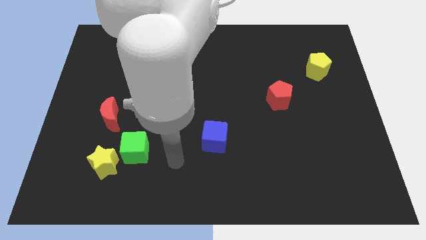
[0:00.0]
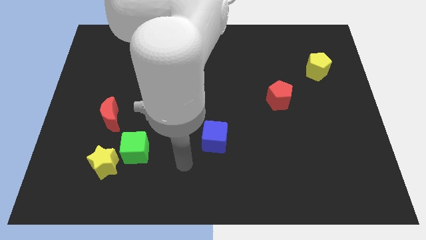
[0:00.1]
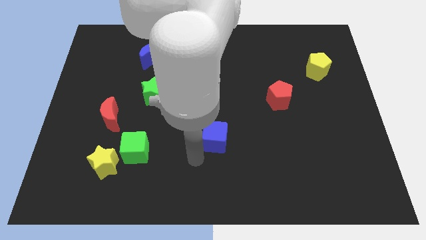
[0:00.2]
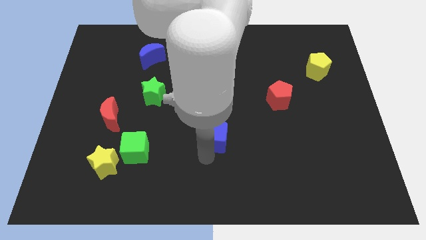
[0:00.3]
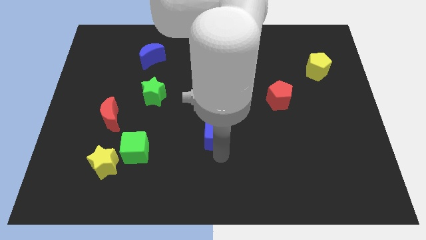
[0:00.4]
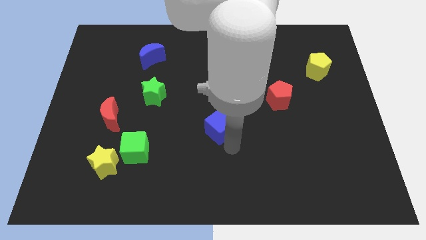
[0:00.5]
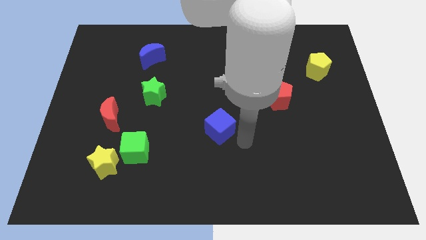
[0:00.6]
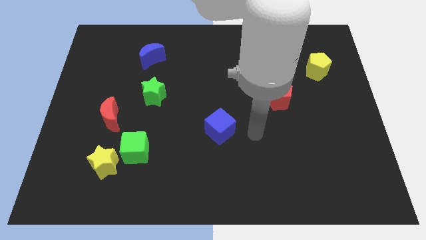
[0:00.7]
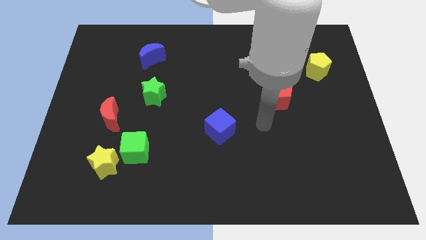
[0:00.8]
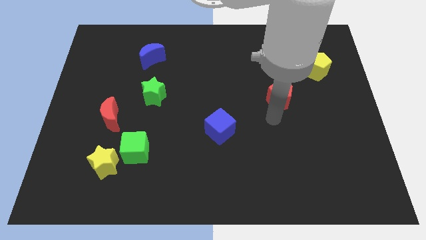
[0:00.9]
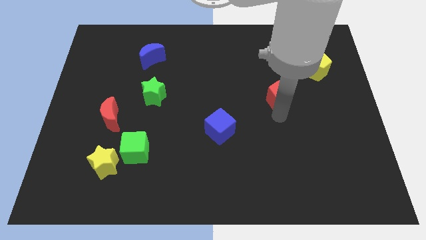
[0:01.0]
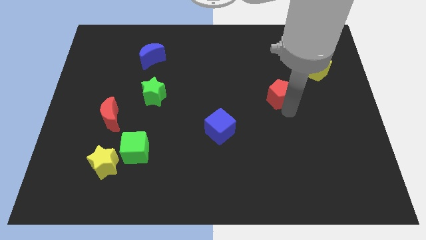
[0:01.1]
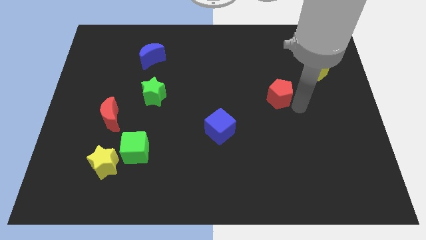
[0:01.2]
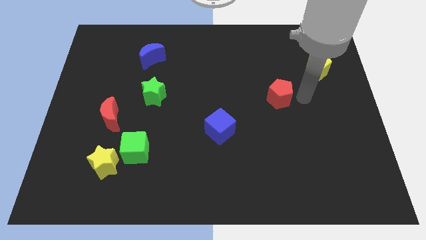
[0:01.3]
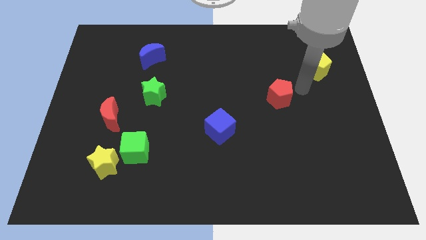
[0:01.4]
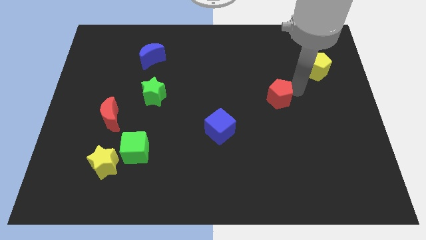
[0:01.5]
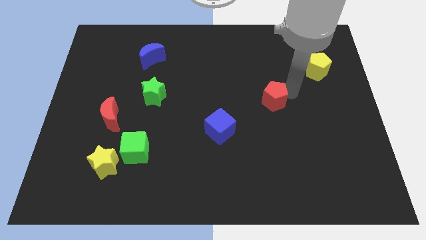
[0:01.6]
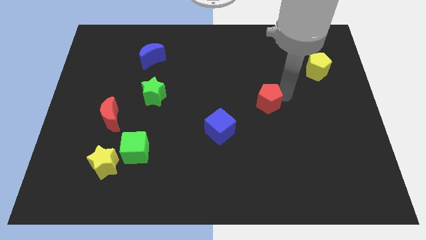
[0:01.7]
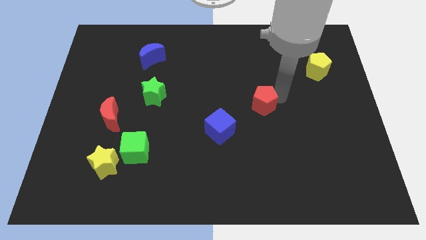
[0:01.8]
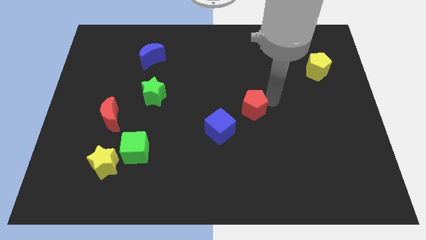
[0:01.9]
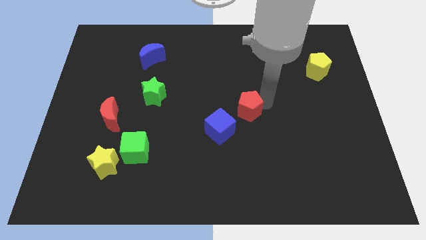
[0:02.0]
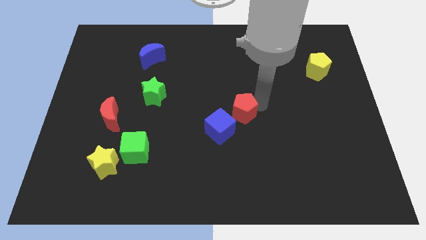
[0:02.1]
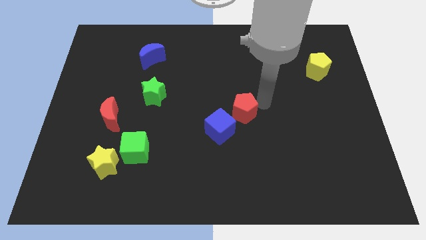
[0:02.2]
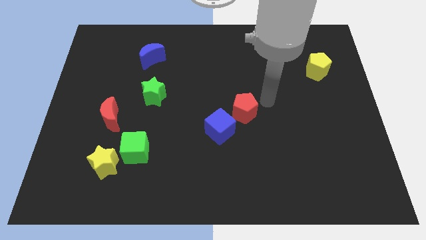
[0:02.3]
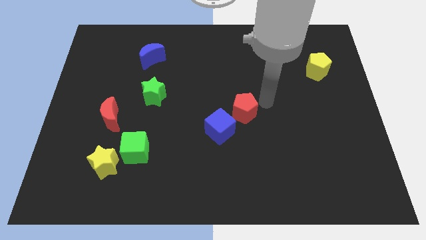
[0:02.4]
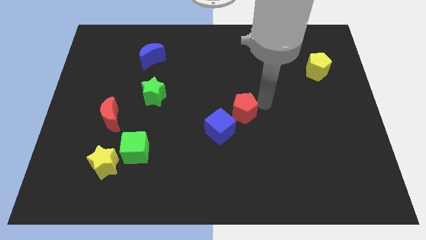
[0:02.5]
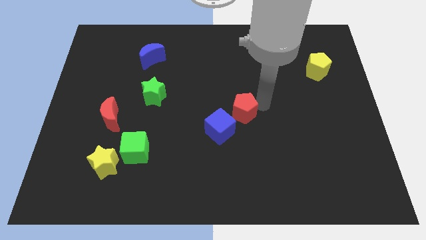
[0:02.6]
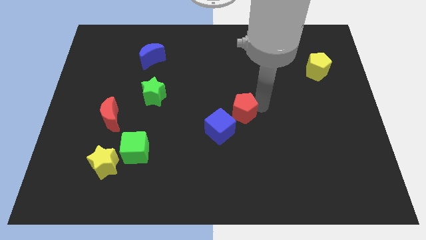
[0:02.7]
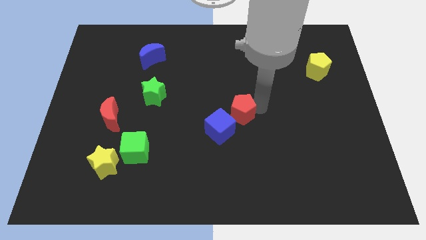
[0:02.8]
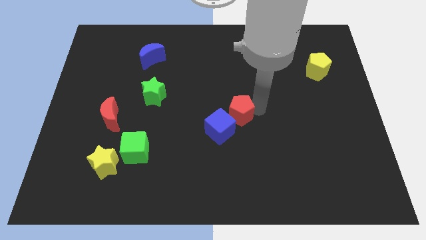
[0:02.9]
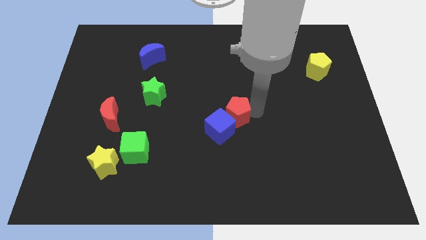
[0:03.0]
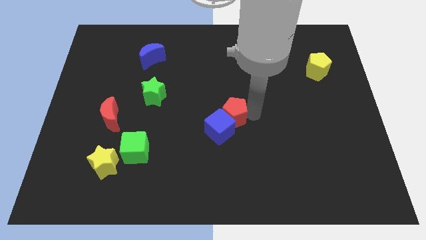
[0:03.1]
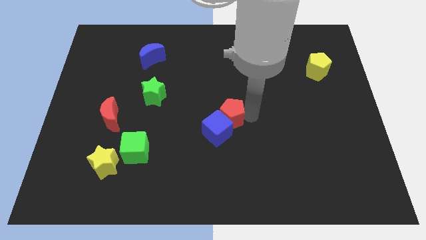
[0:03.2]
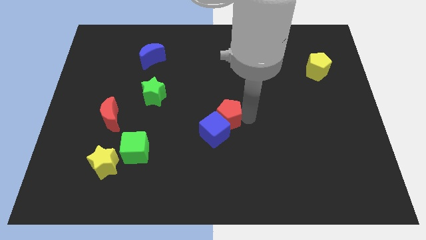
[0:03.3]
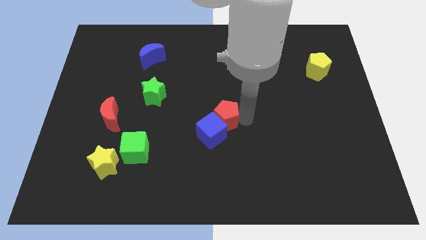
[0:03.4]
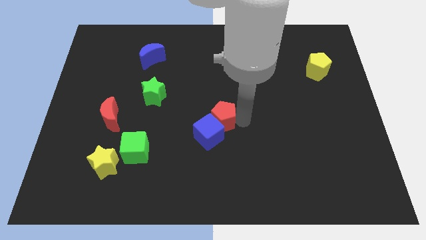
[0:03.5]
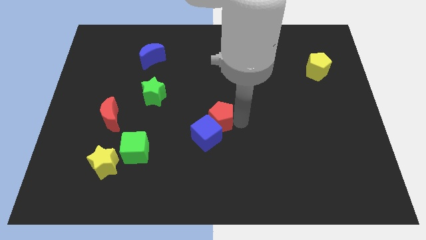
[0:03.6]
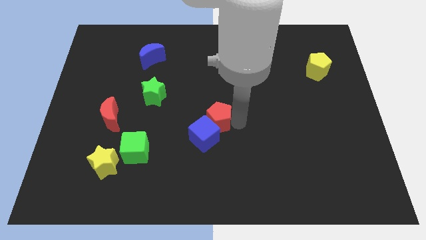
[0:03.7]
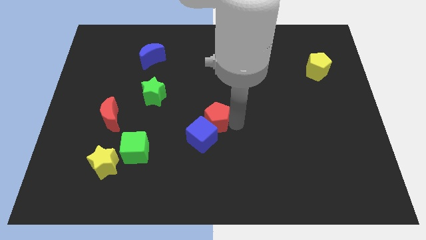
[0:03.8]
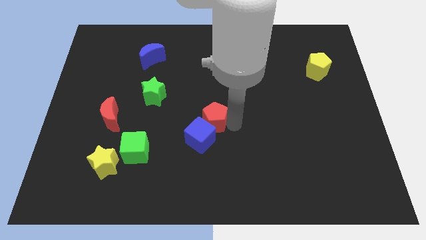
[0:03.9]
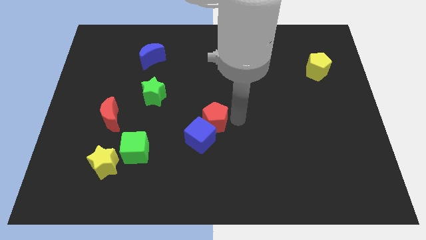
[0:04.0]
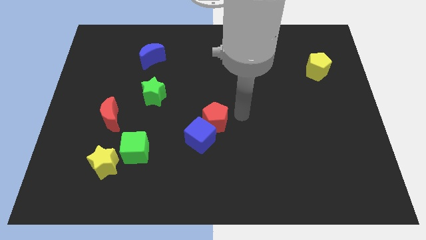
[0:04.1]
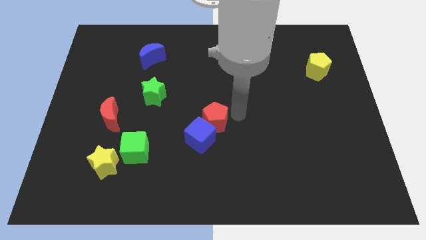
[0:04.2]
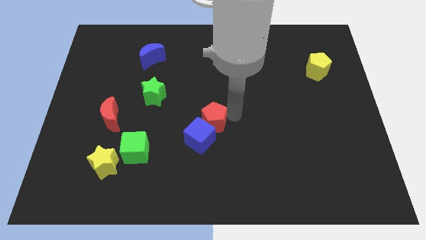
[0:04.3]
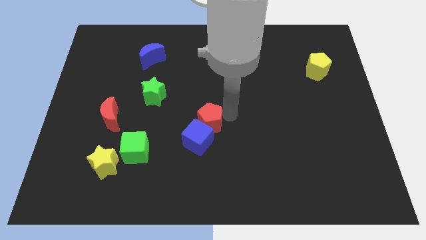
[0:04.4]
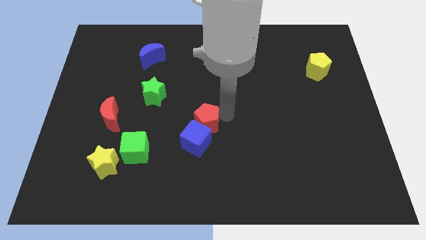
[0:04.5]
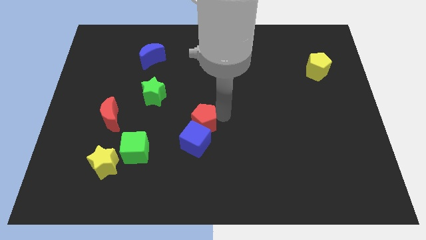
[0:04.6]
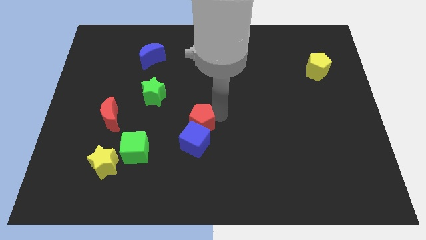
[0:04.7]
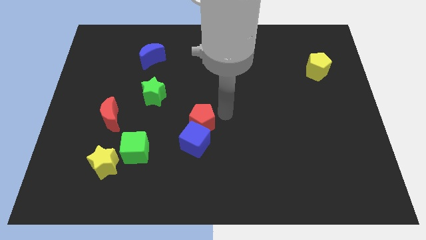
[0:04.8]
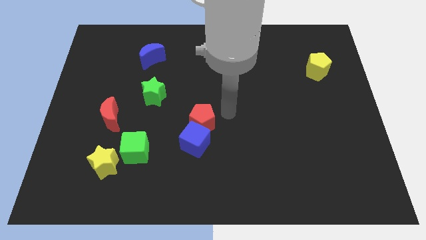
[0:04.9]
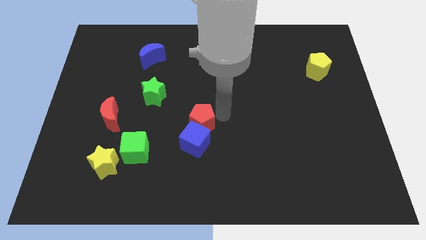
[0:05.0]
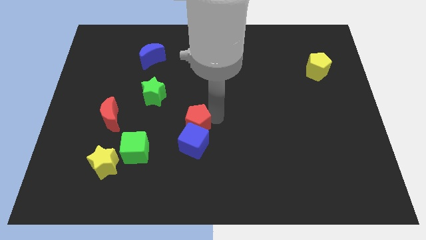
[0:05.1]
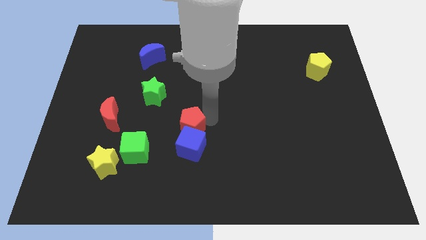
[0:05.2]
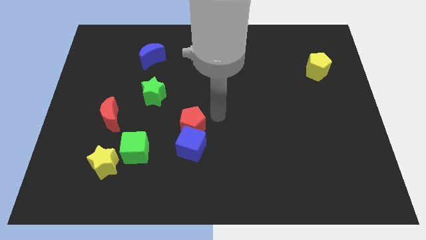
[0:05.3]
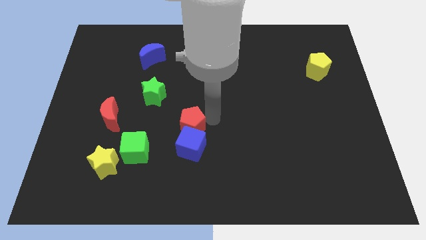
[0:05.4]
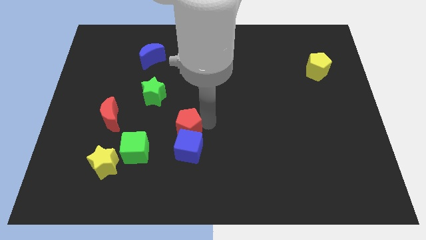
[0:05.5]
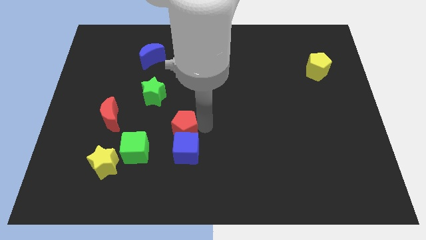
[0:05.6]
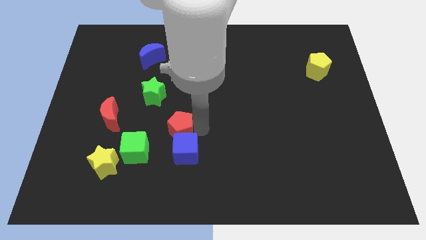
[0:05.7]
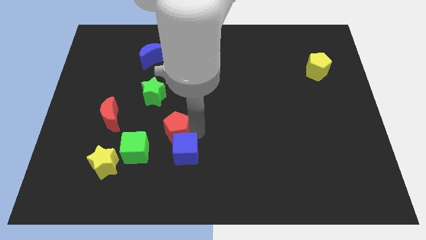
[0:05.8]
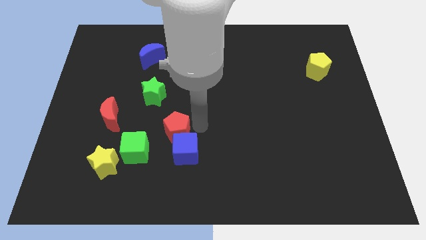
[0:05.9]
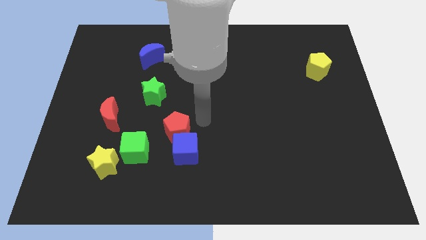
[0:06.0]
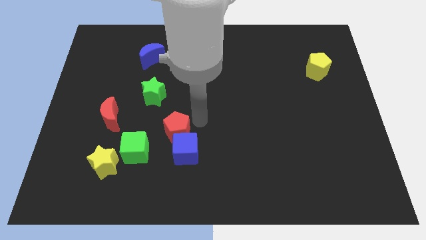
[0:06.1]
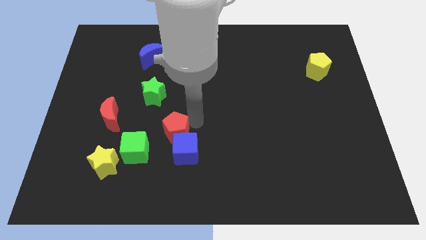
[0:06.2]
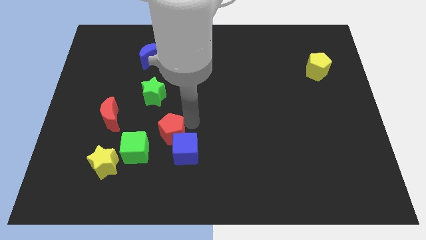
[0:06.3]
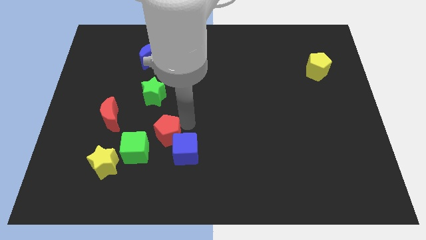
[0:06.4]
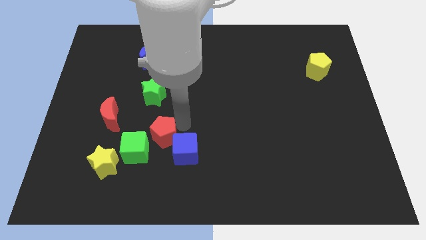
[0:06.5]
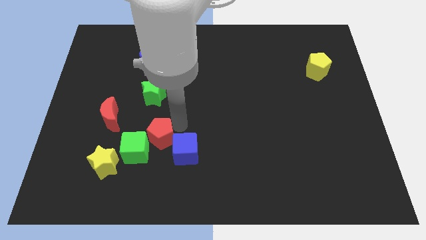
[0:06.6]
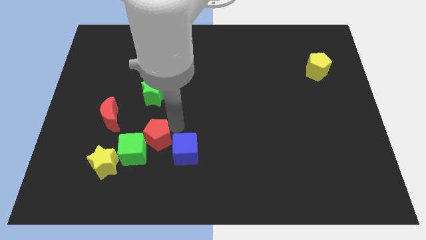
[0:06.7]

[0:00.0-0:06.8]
put the red pentagon close to the green cube
